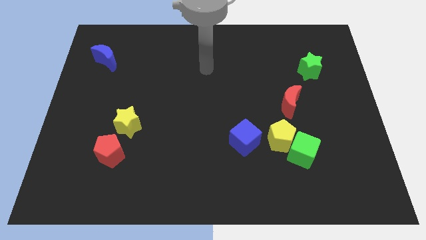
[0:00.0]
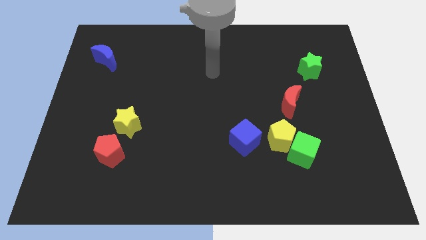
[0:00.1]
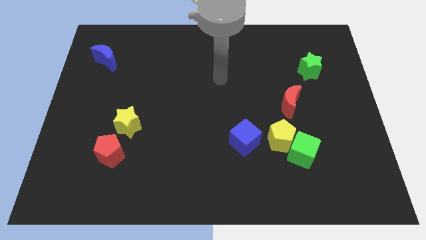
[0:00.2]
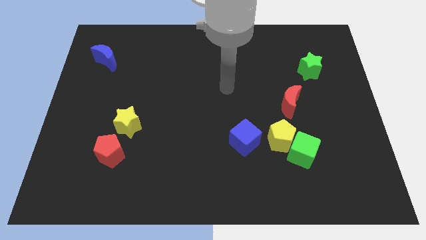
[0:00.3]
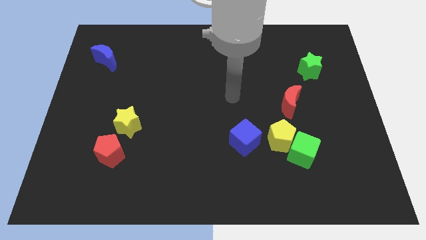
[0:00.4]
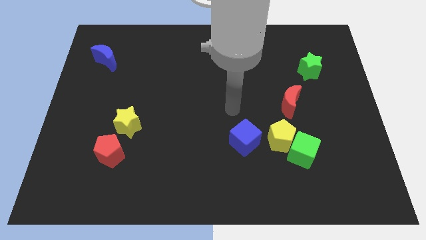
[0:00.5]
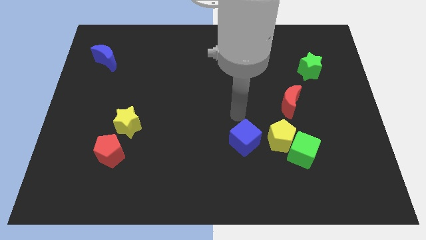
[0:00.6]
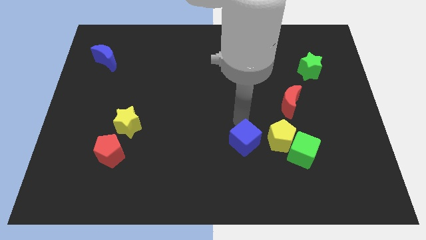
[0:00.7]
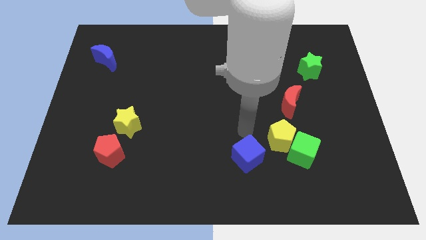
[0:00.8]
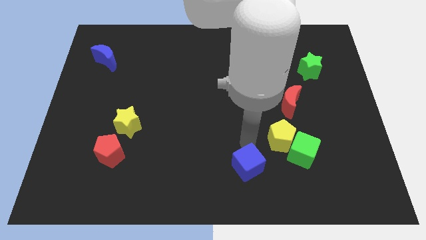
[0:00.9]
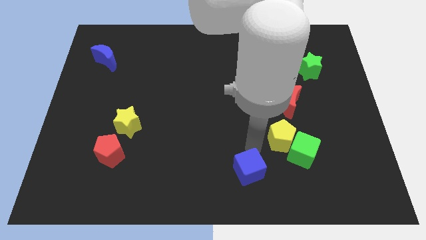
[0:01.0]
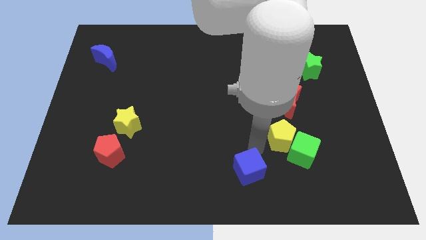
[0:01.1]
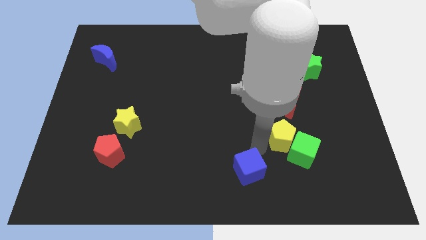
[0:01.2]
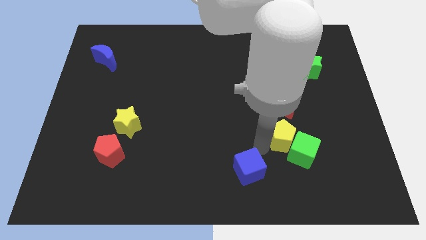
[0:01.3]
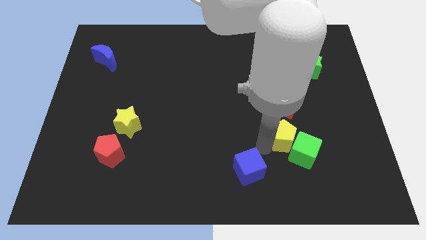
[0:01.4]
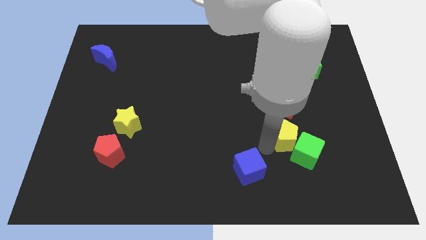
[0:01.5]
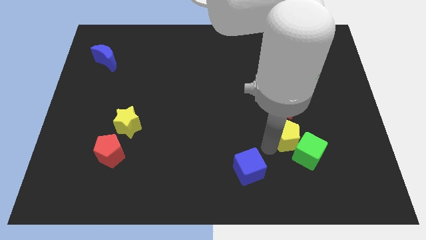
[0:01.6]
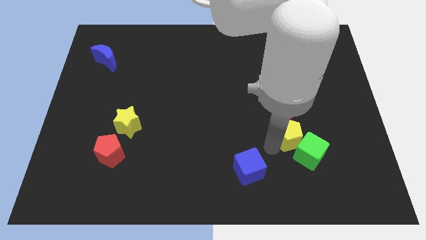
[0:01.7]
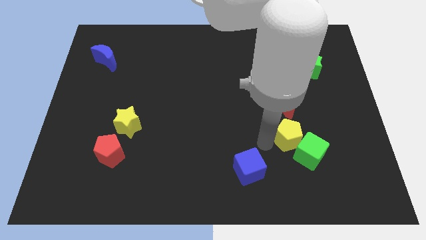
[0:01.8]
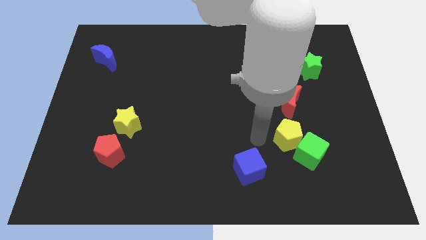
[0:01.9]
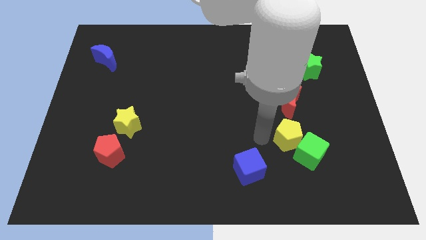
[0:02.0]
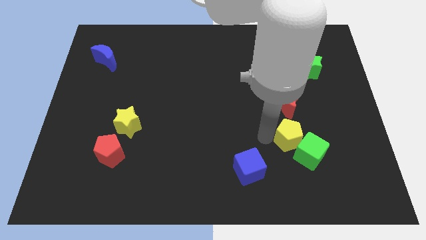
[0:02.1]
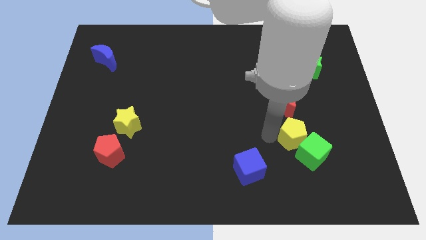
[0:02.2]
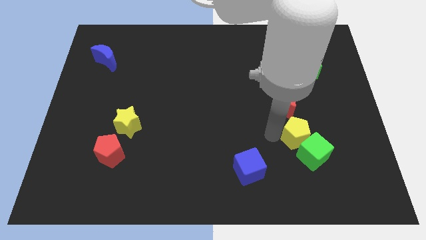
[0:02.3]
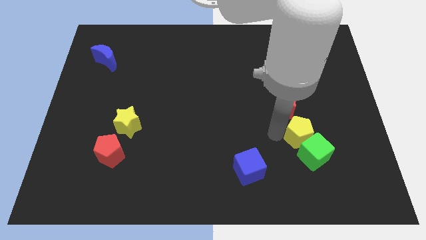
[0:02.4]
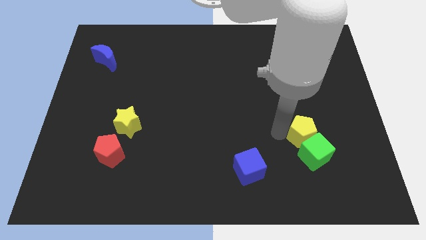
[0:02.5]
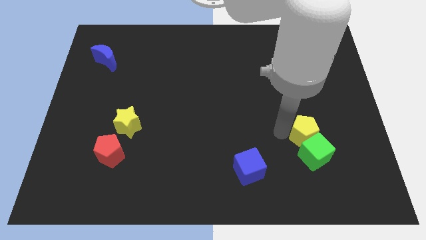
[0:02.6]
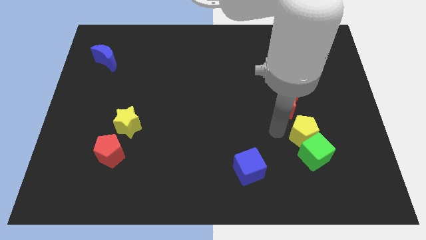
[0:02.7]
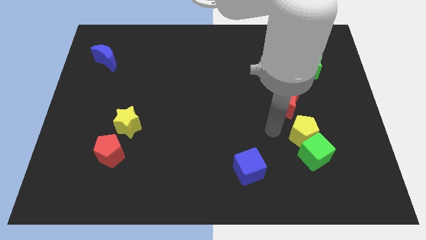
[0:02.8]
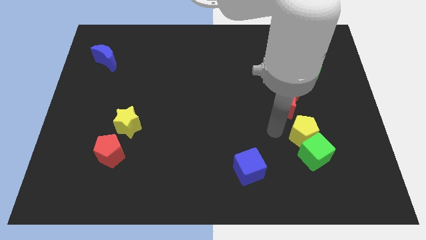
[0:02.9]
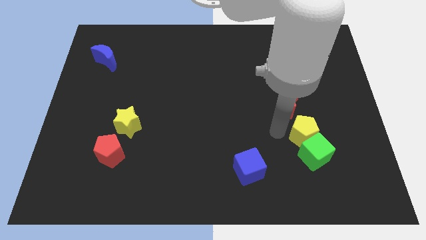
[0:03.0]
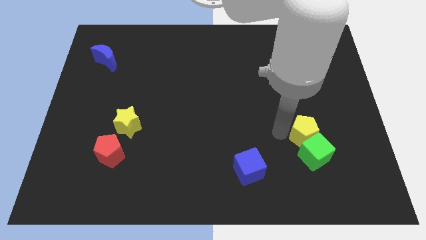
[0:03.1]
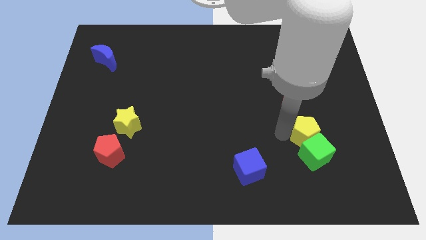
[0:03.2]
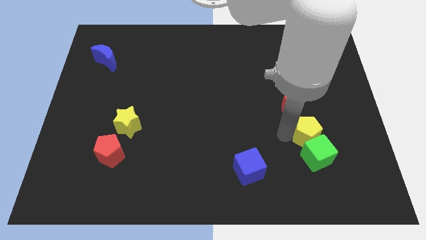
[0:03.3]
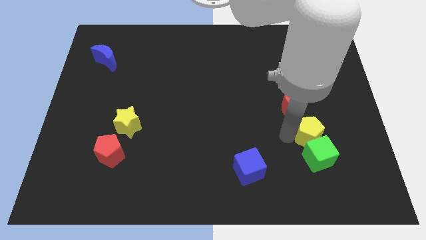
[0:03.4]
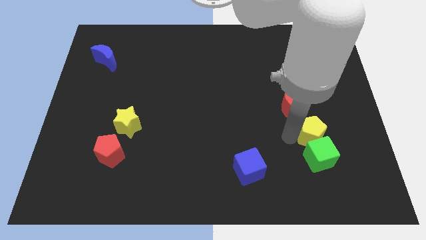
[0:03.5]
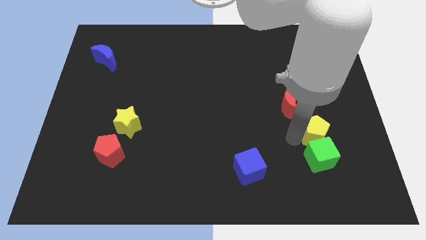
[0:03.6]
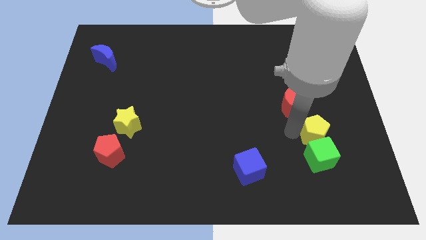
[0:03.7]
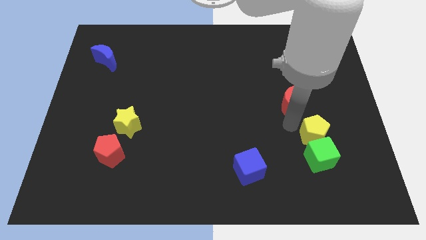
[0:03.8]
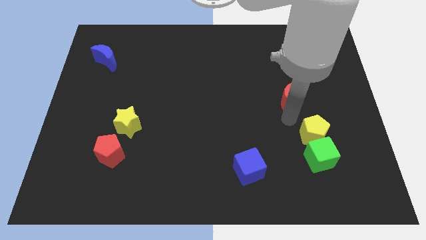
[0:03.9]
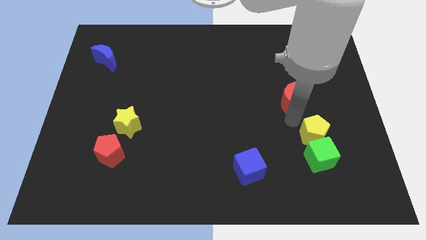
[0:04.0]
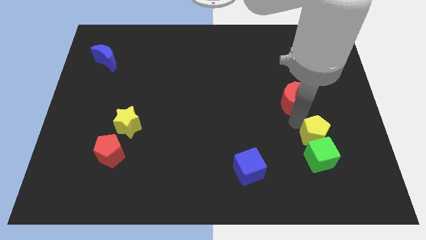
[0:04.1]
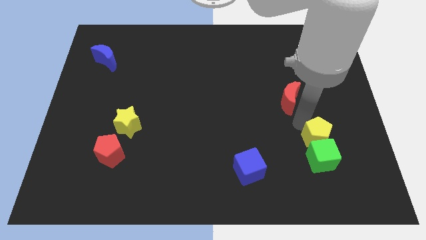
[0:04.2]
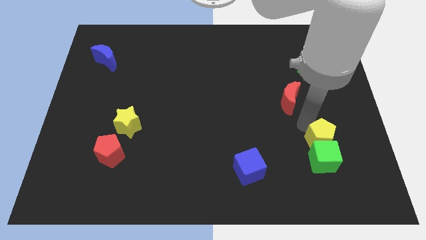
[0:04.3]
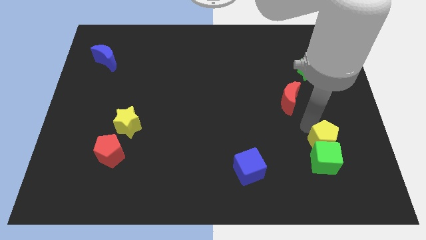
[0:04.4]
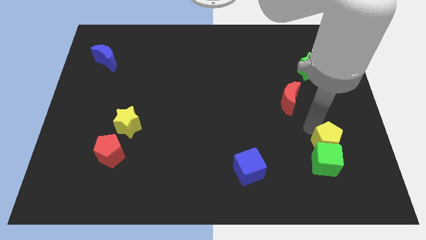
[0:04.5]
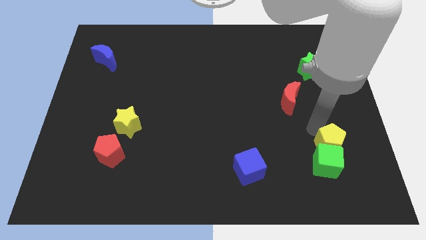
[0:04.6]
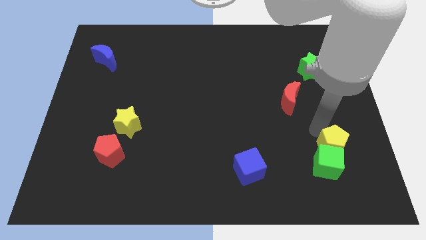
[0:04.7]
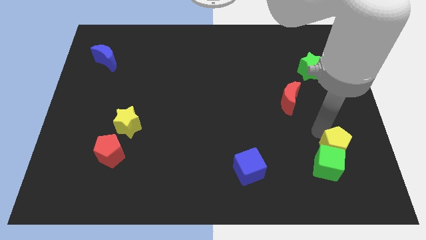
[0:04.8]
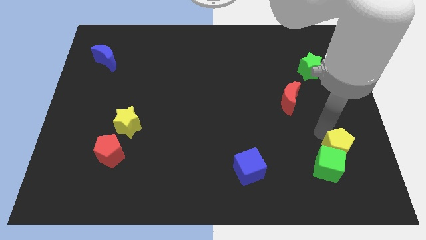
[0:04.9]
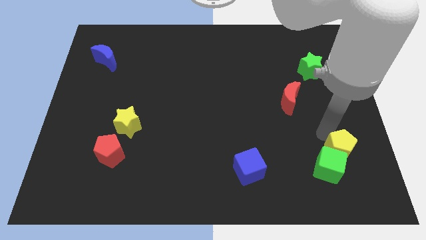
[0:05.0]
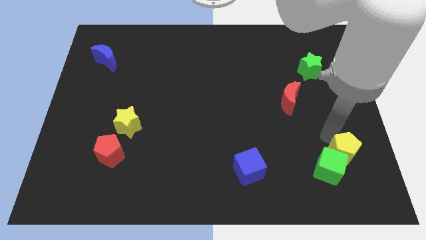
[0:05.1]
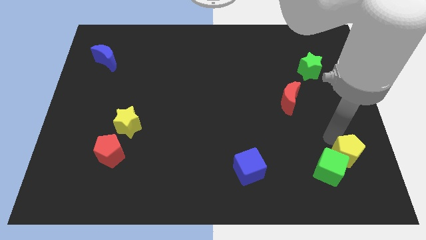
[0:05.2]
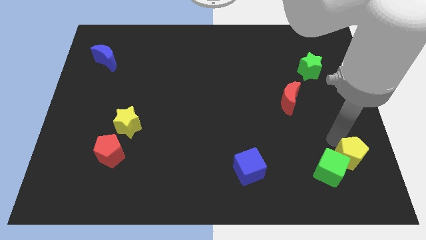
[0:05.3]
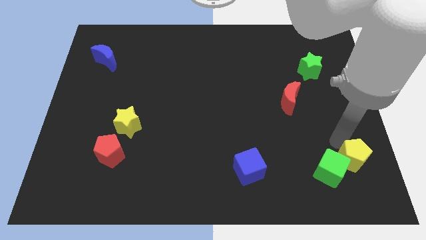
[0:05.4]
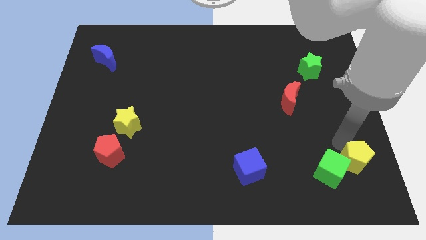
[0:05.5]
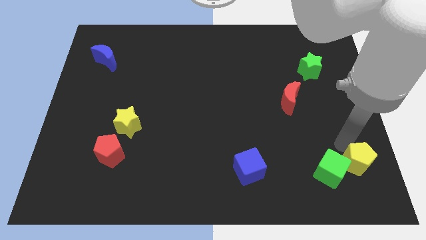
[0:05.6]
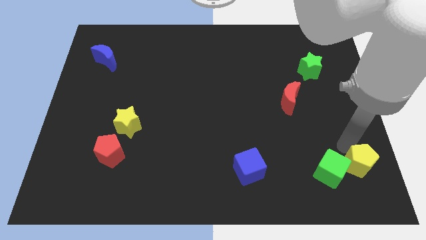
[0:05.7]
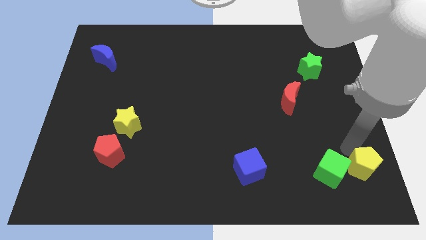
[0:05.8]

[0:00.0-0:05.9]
push the yellow pentagon to the bottom right corner

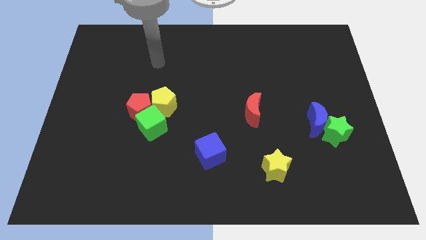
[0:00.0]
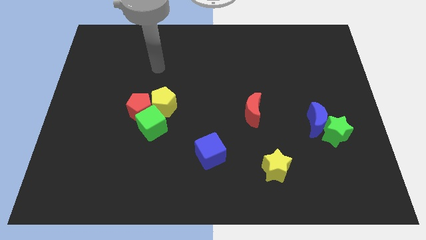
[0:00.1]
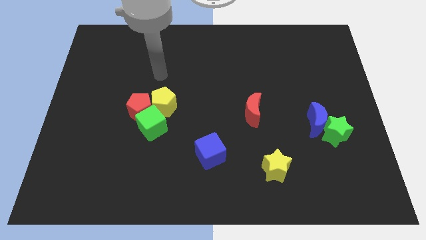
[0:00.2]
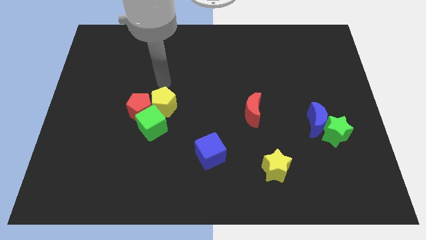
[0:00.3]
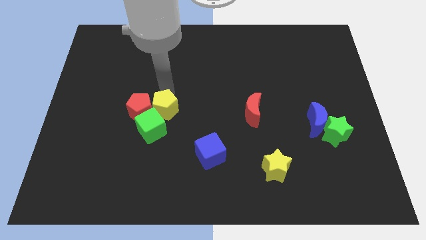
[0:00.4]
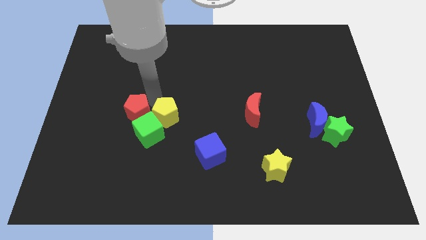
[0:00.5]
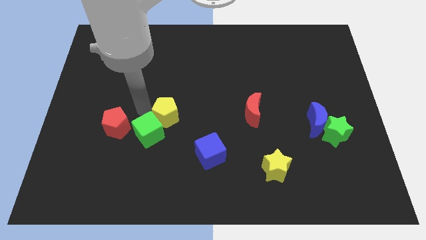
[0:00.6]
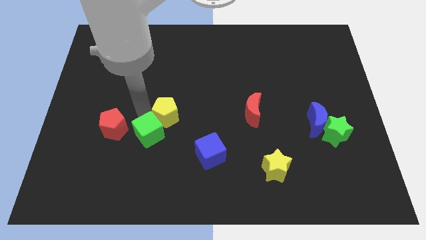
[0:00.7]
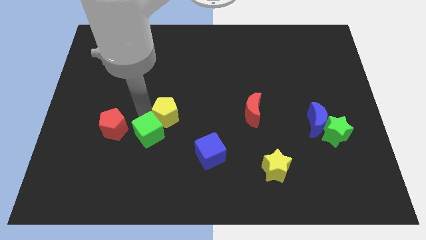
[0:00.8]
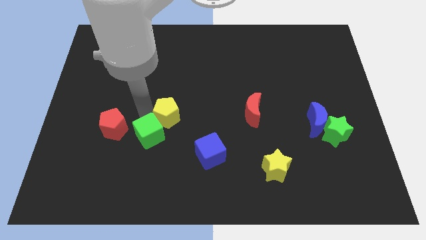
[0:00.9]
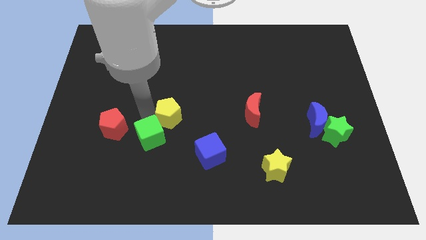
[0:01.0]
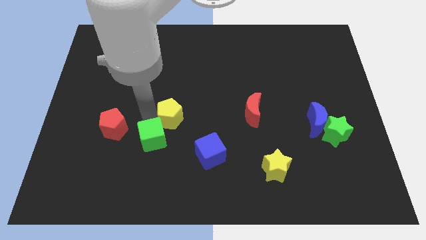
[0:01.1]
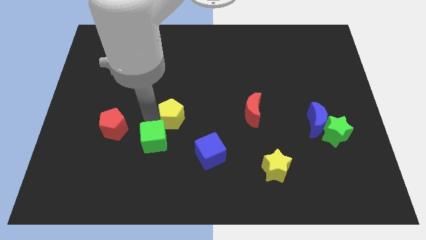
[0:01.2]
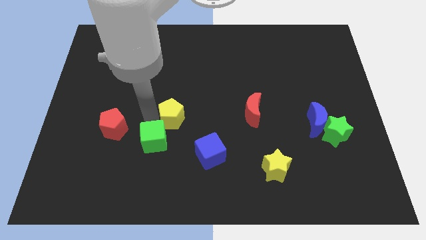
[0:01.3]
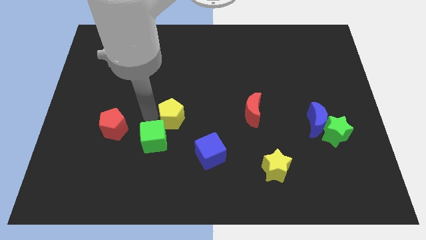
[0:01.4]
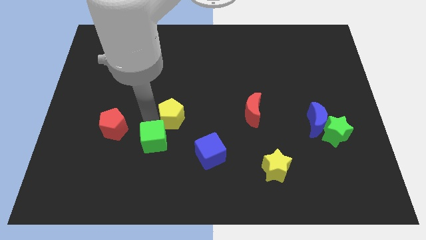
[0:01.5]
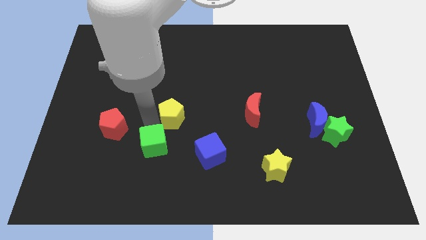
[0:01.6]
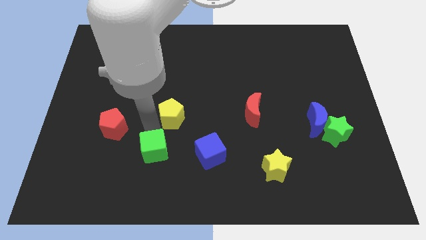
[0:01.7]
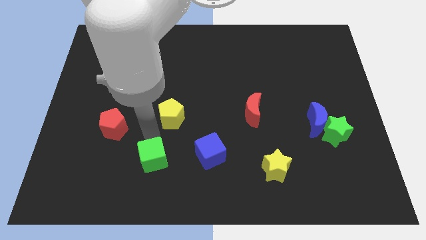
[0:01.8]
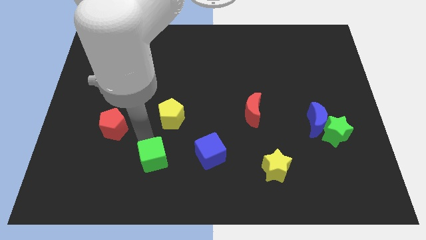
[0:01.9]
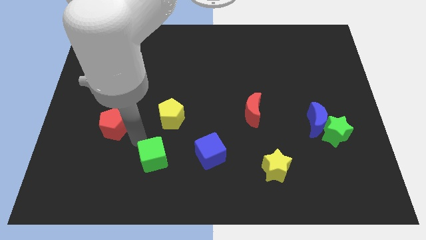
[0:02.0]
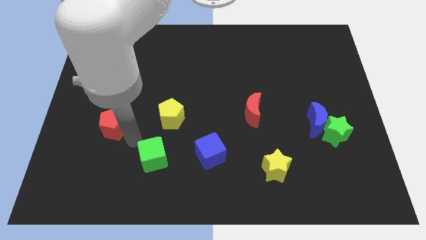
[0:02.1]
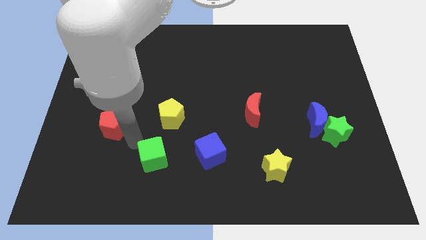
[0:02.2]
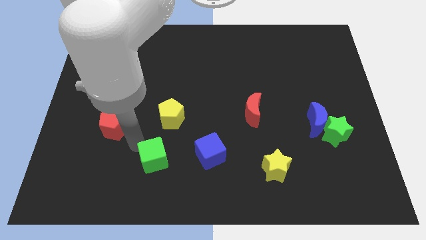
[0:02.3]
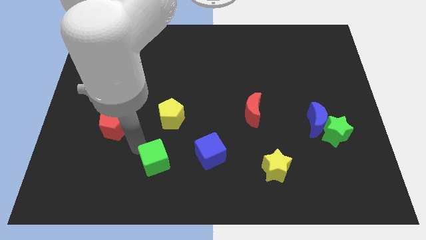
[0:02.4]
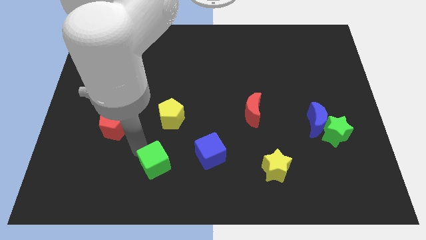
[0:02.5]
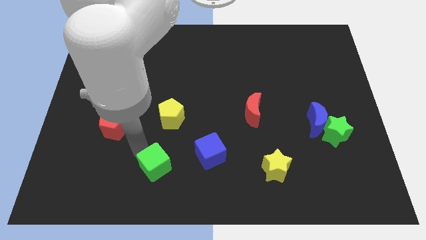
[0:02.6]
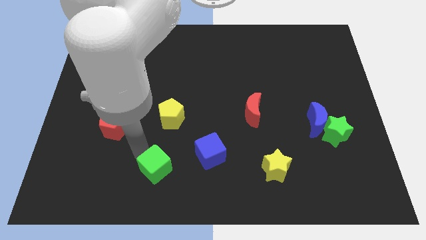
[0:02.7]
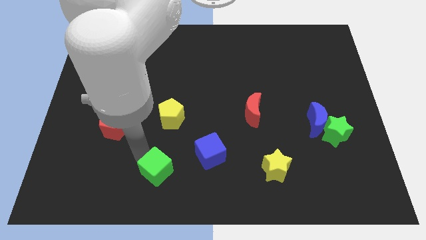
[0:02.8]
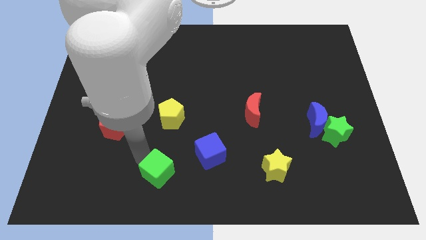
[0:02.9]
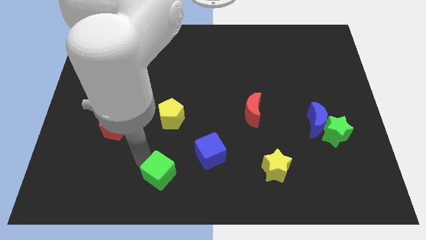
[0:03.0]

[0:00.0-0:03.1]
move the green cube to the bottom
